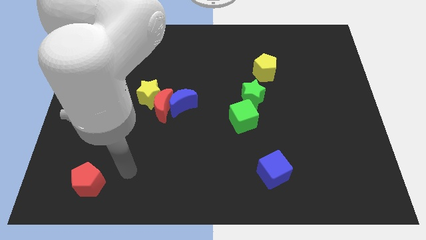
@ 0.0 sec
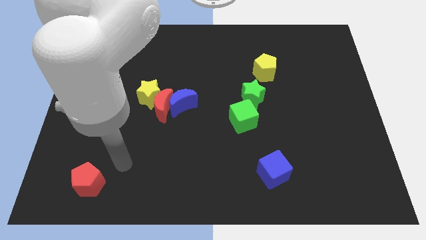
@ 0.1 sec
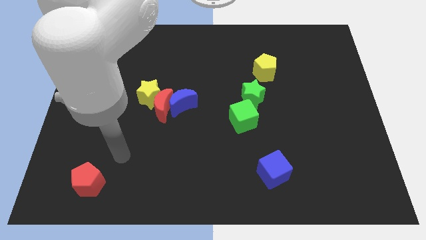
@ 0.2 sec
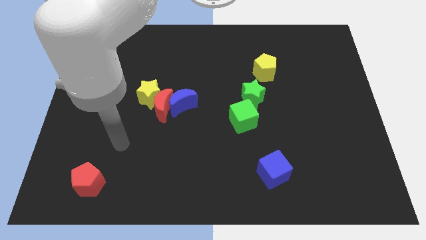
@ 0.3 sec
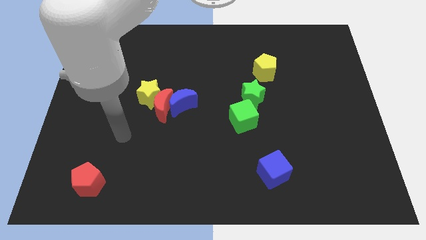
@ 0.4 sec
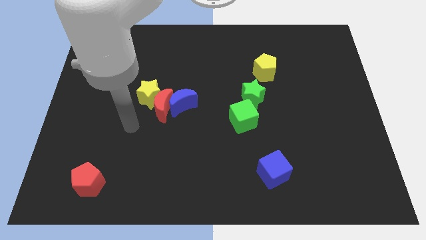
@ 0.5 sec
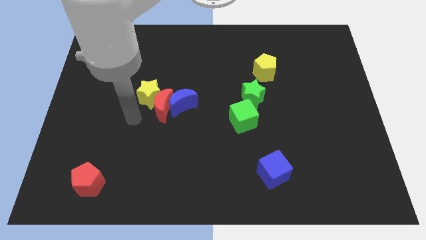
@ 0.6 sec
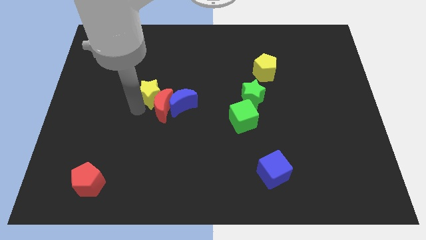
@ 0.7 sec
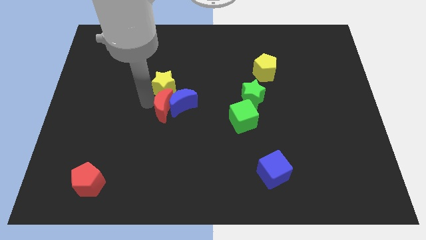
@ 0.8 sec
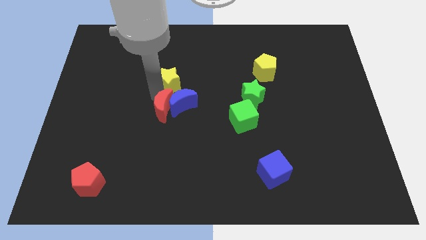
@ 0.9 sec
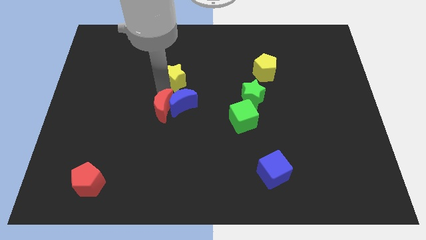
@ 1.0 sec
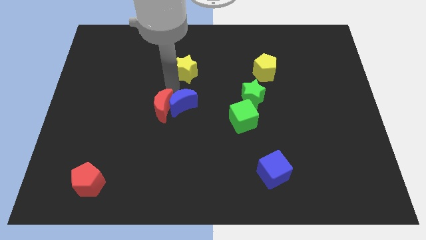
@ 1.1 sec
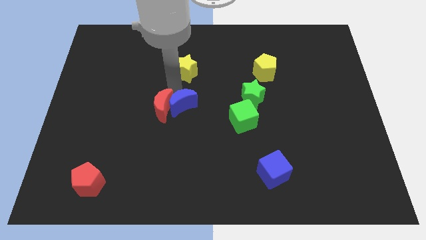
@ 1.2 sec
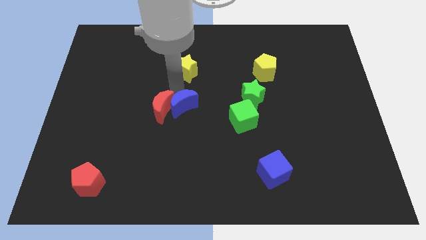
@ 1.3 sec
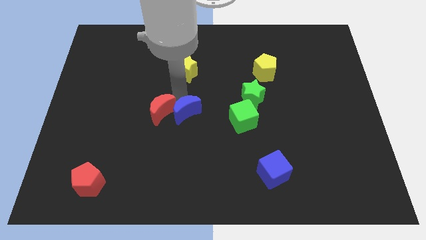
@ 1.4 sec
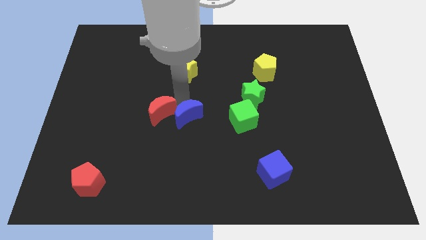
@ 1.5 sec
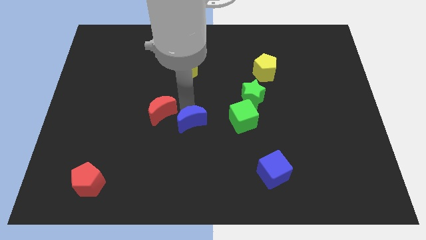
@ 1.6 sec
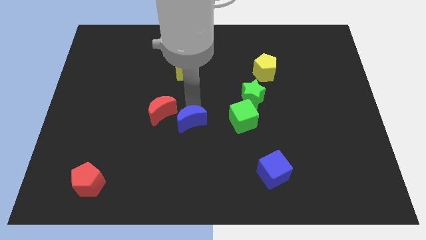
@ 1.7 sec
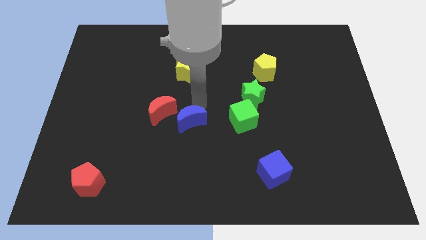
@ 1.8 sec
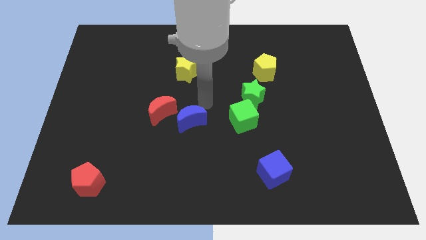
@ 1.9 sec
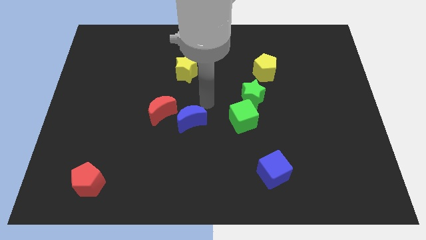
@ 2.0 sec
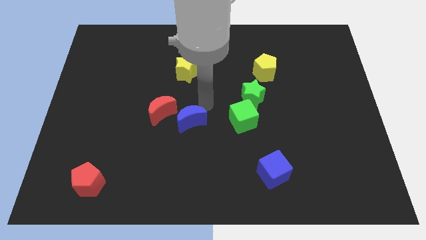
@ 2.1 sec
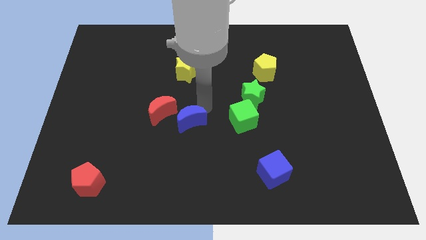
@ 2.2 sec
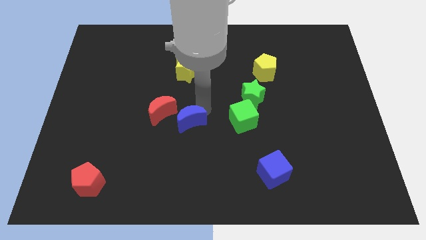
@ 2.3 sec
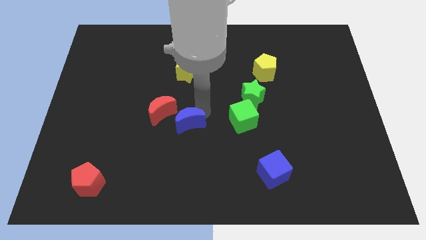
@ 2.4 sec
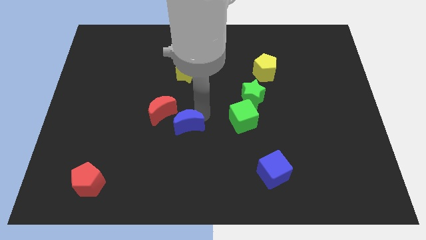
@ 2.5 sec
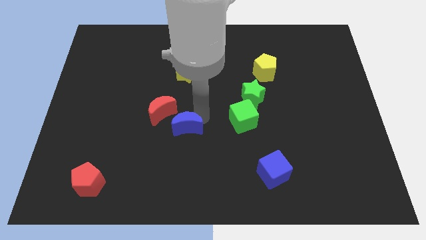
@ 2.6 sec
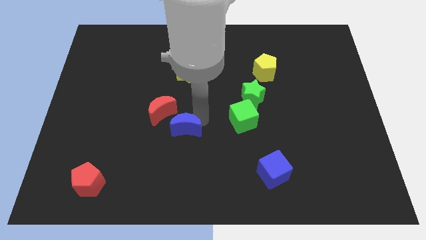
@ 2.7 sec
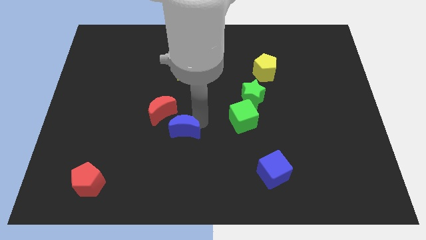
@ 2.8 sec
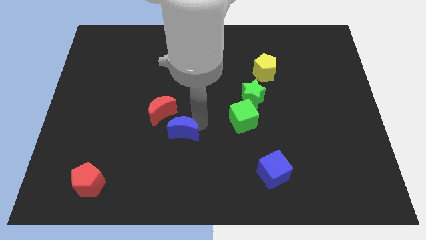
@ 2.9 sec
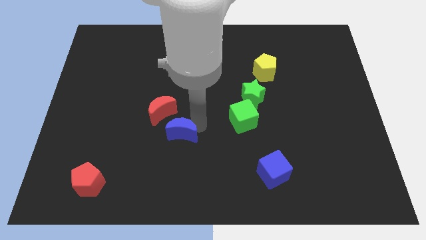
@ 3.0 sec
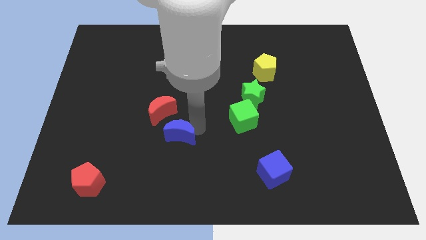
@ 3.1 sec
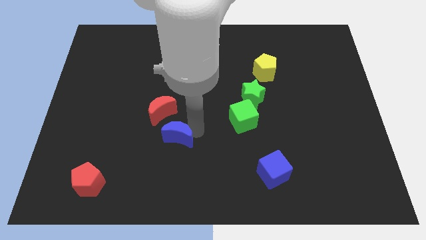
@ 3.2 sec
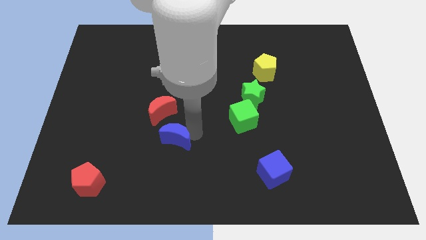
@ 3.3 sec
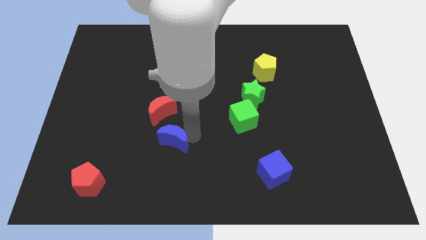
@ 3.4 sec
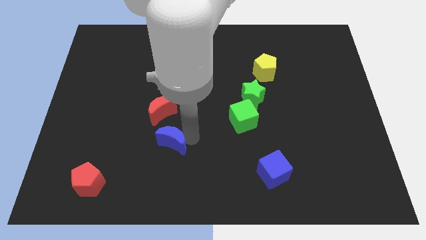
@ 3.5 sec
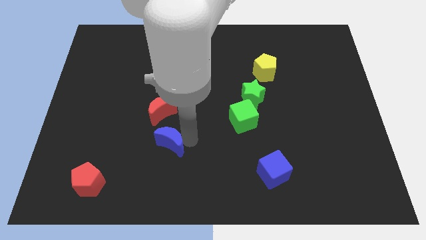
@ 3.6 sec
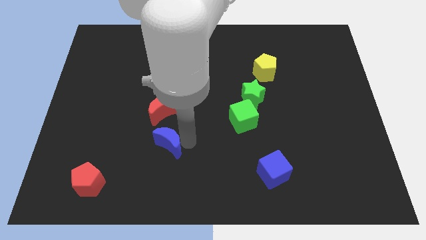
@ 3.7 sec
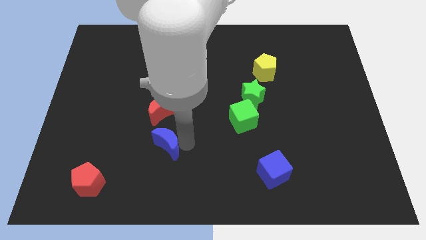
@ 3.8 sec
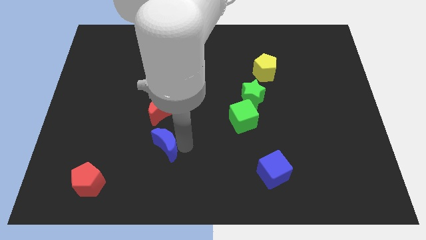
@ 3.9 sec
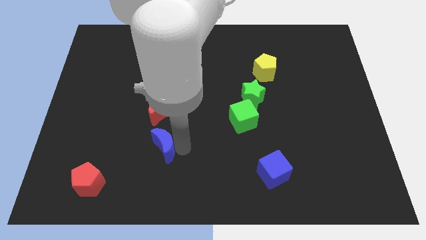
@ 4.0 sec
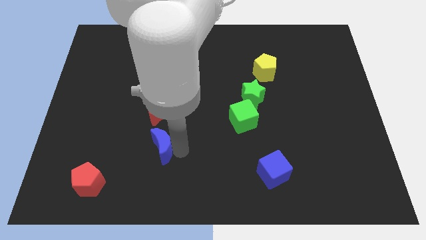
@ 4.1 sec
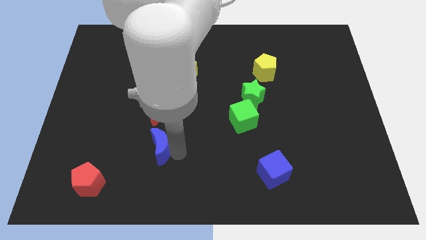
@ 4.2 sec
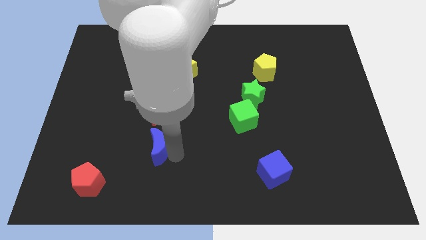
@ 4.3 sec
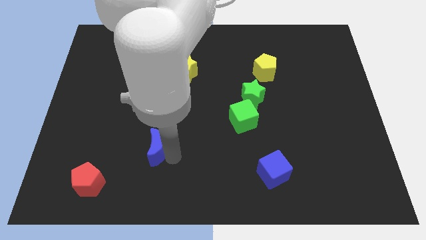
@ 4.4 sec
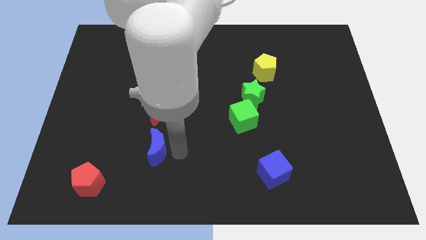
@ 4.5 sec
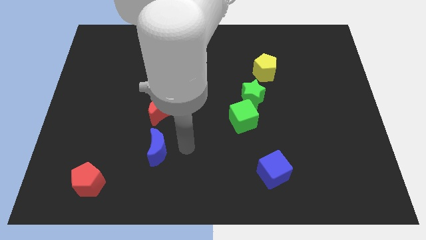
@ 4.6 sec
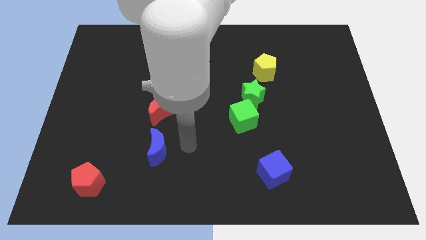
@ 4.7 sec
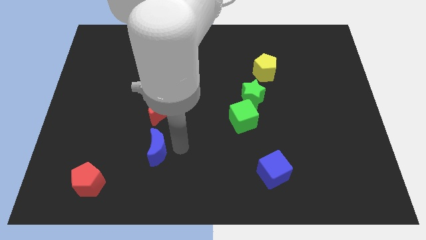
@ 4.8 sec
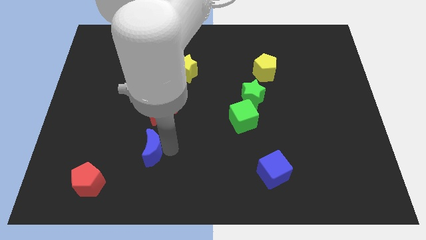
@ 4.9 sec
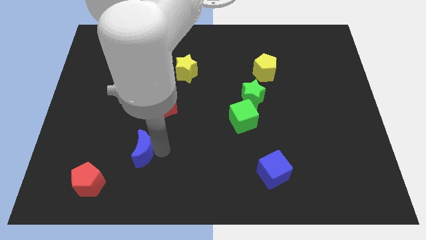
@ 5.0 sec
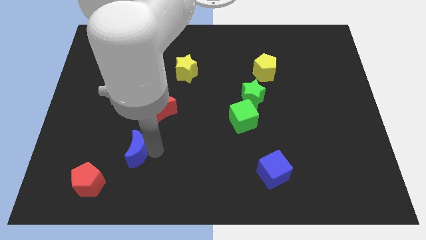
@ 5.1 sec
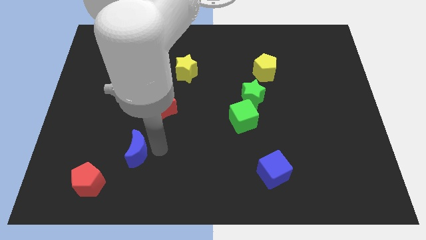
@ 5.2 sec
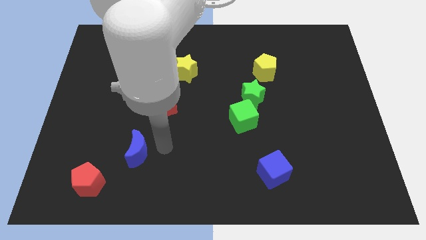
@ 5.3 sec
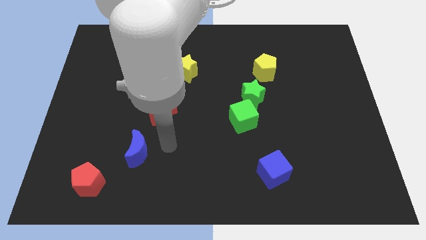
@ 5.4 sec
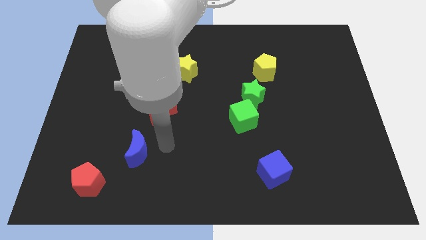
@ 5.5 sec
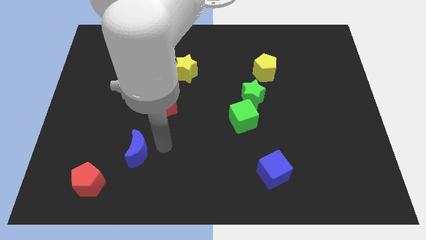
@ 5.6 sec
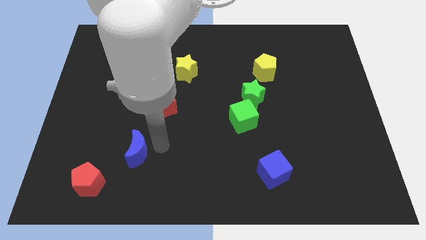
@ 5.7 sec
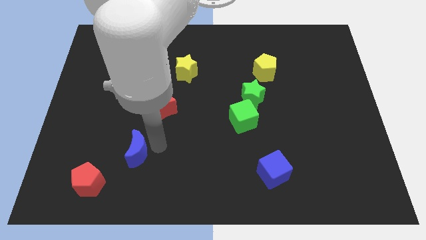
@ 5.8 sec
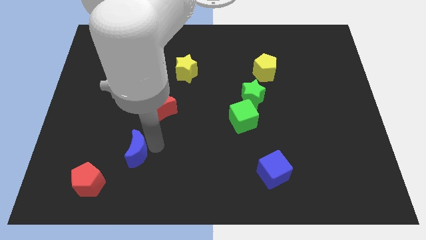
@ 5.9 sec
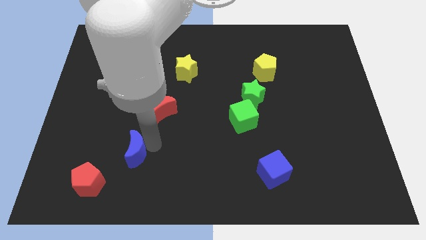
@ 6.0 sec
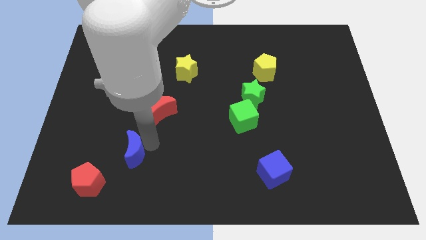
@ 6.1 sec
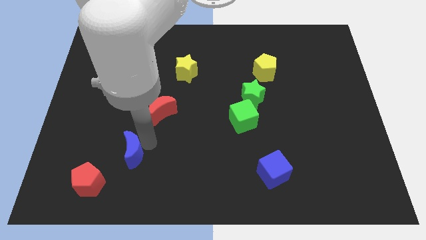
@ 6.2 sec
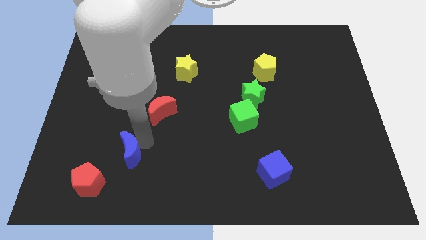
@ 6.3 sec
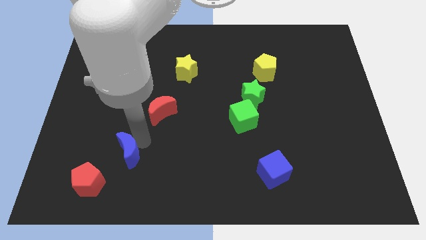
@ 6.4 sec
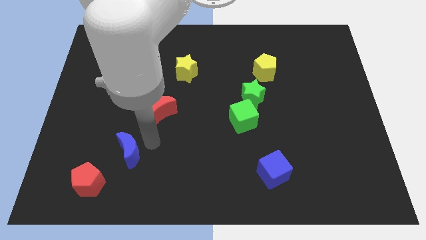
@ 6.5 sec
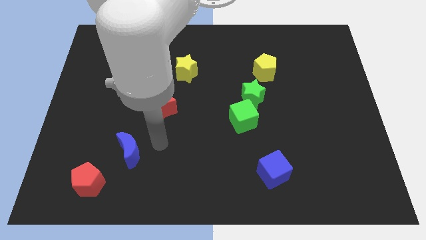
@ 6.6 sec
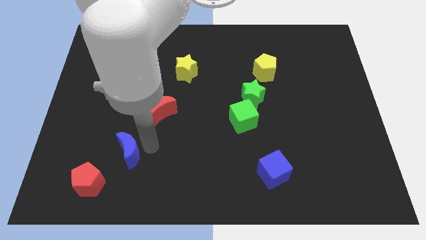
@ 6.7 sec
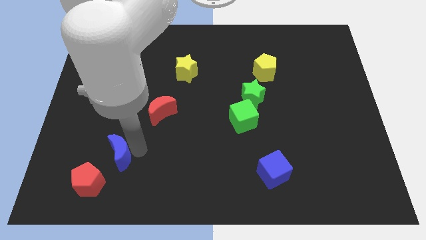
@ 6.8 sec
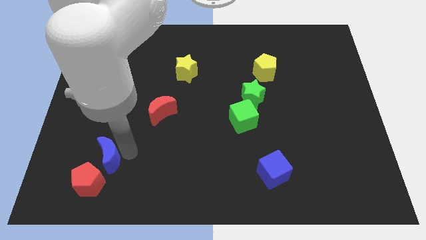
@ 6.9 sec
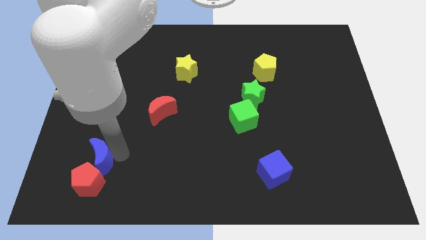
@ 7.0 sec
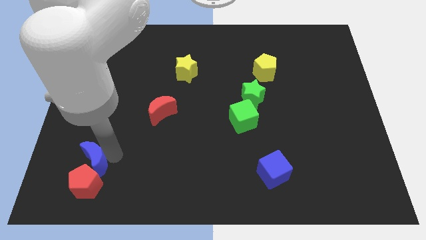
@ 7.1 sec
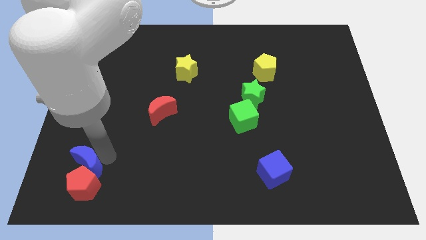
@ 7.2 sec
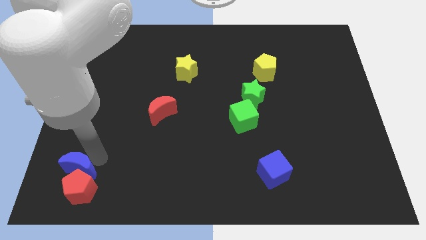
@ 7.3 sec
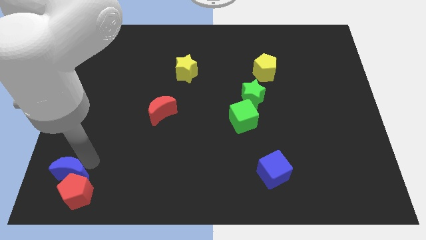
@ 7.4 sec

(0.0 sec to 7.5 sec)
move the blue moon to the lower left corner
